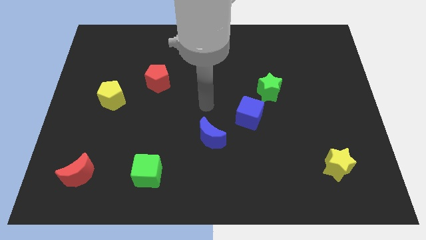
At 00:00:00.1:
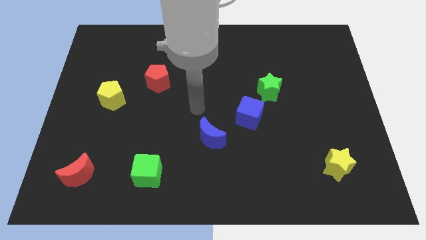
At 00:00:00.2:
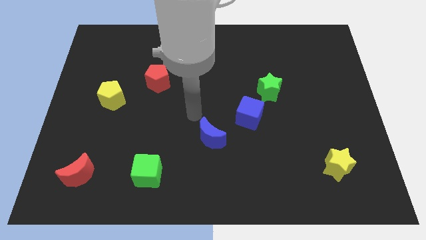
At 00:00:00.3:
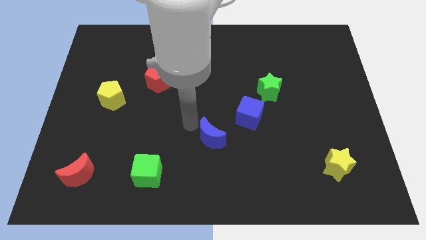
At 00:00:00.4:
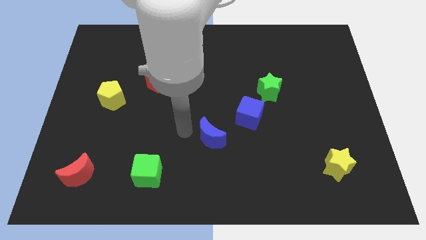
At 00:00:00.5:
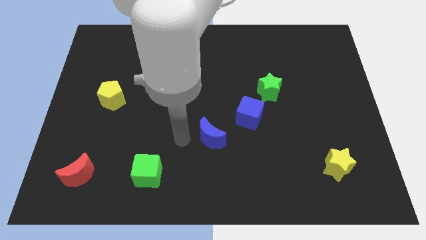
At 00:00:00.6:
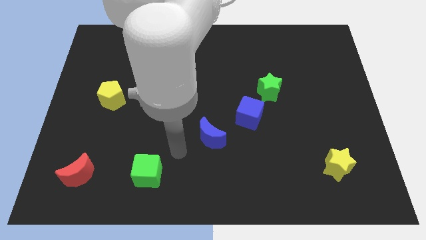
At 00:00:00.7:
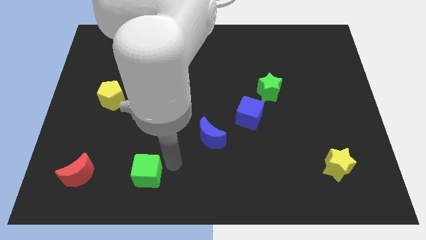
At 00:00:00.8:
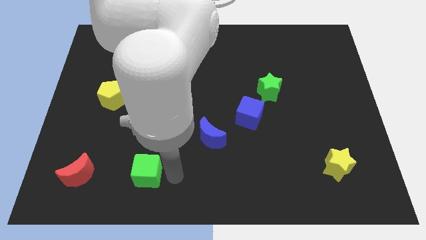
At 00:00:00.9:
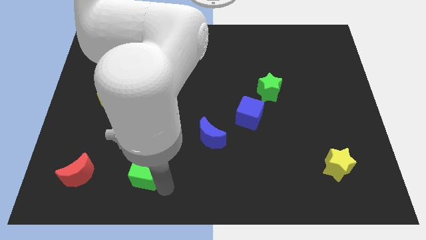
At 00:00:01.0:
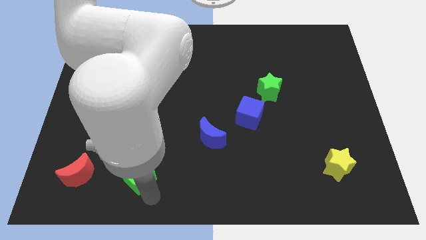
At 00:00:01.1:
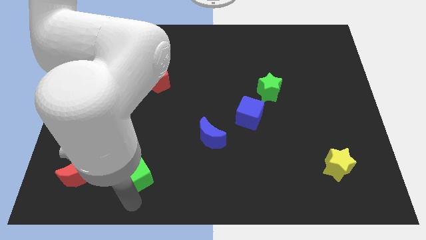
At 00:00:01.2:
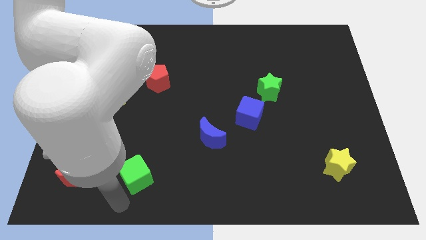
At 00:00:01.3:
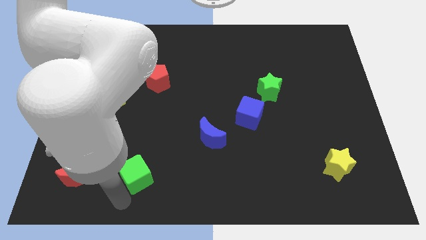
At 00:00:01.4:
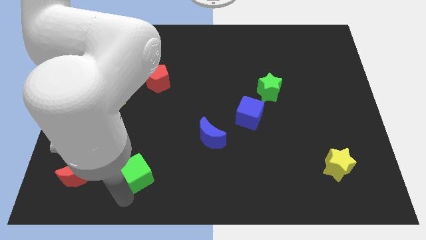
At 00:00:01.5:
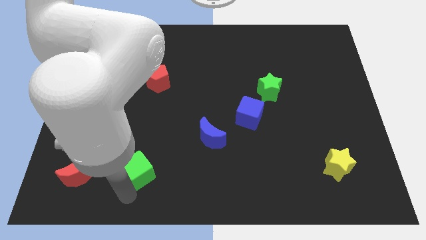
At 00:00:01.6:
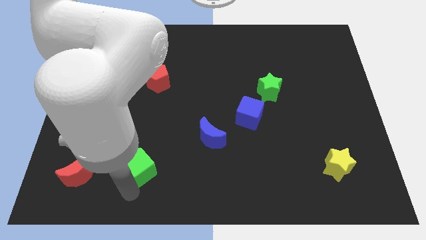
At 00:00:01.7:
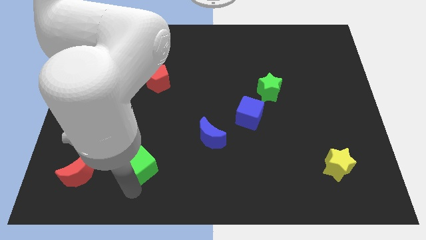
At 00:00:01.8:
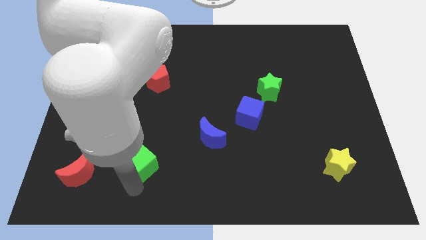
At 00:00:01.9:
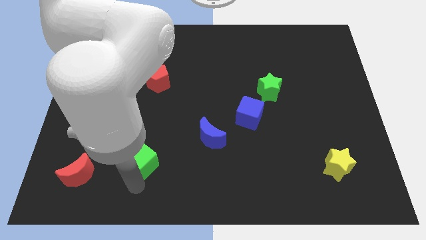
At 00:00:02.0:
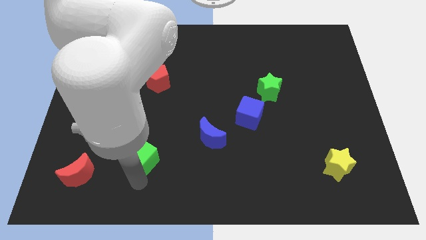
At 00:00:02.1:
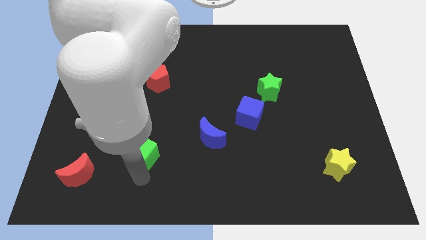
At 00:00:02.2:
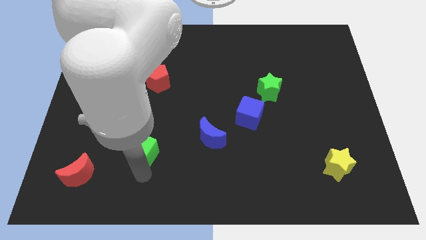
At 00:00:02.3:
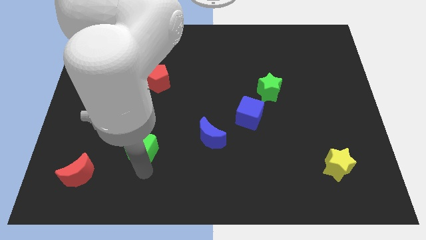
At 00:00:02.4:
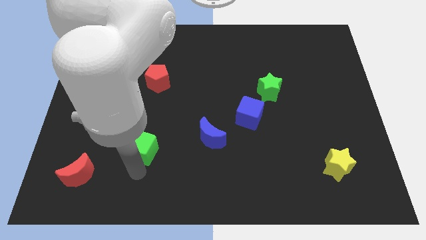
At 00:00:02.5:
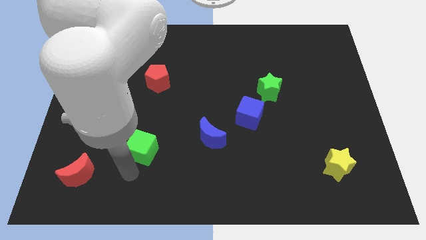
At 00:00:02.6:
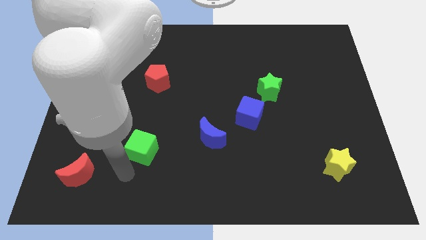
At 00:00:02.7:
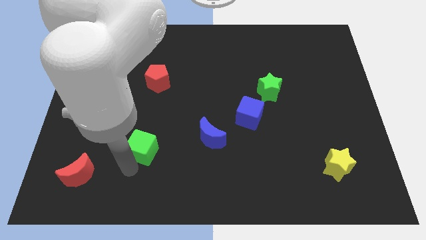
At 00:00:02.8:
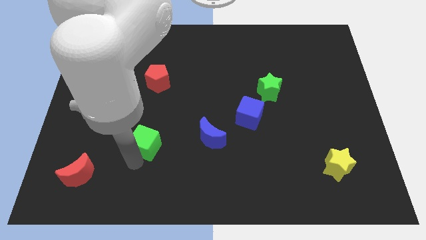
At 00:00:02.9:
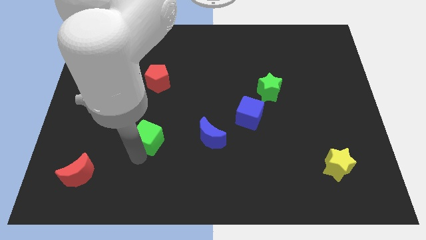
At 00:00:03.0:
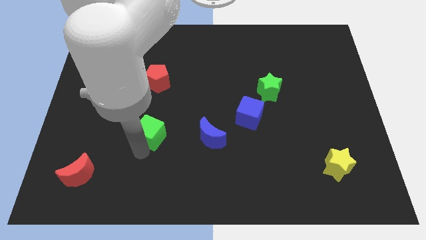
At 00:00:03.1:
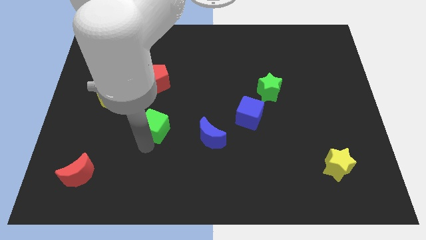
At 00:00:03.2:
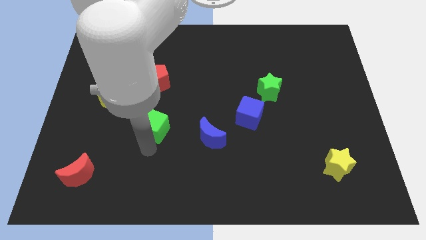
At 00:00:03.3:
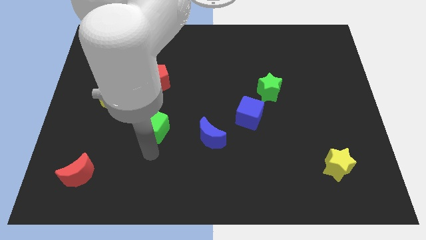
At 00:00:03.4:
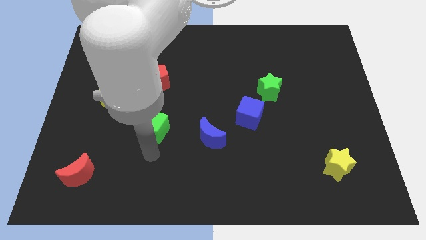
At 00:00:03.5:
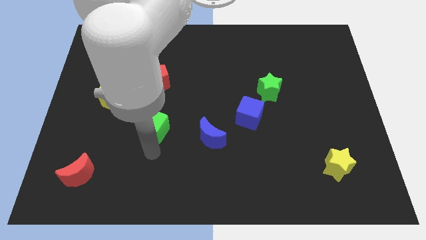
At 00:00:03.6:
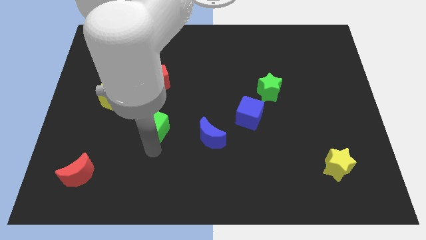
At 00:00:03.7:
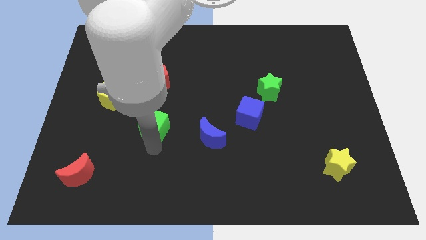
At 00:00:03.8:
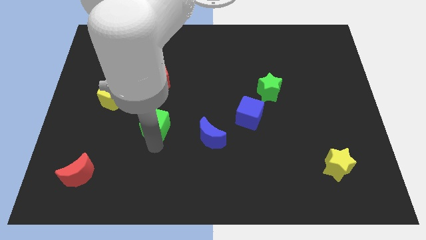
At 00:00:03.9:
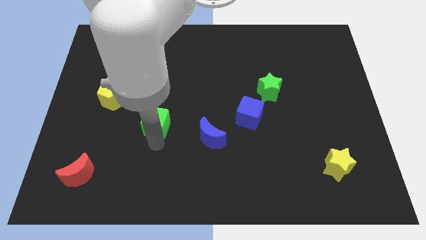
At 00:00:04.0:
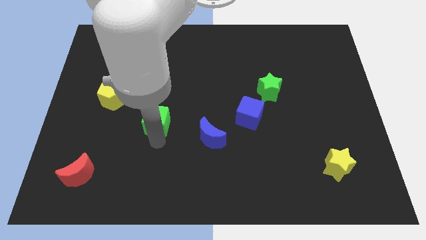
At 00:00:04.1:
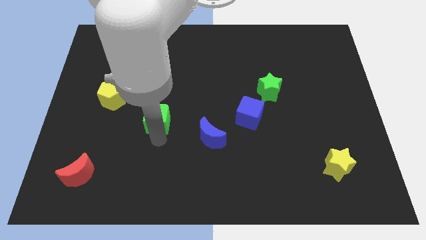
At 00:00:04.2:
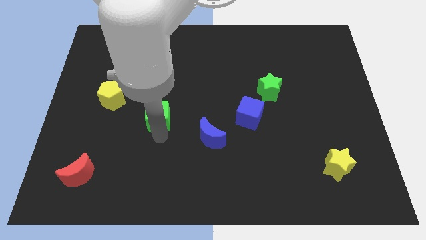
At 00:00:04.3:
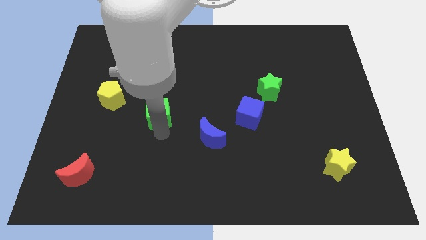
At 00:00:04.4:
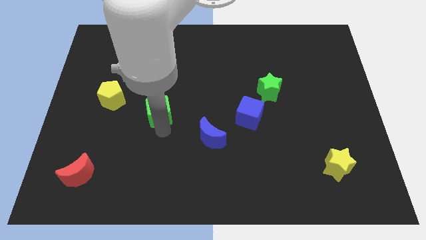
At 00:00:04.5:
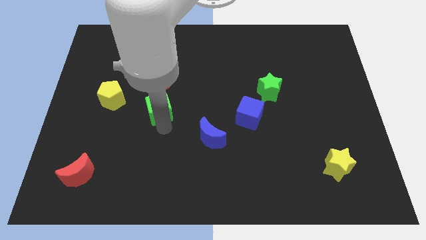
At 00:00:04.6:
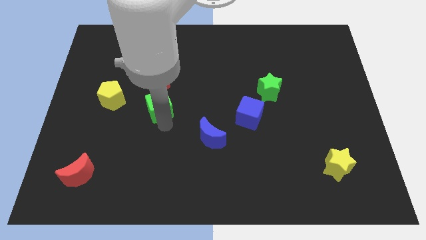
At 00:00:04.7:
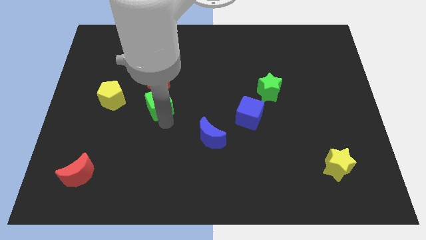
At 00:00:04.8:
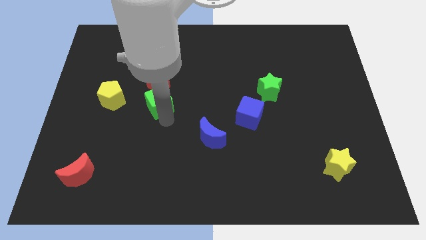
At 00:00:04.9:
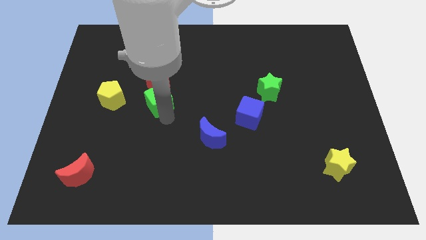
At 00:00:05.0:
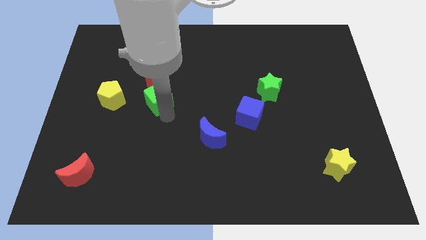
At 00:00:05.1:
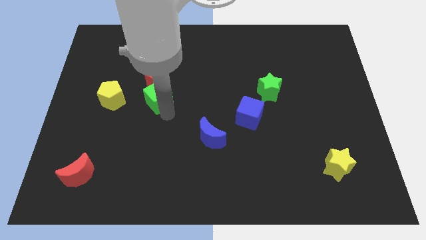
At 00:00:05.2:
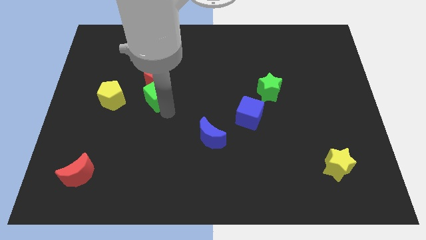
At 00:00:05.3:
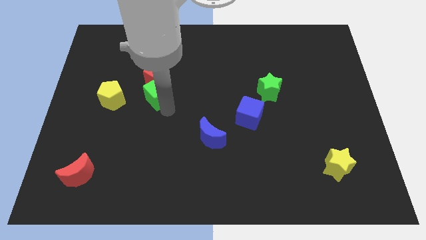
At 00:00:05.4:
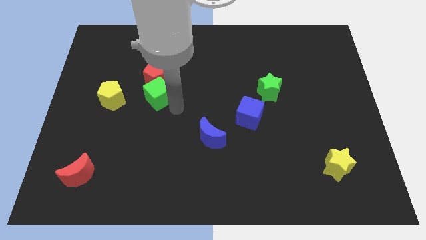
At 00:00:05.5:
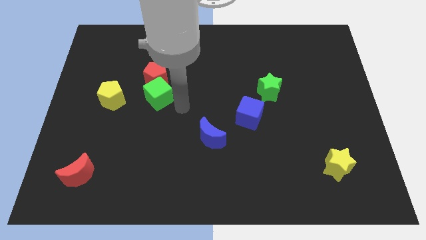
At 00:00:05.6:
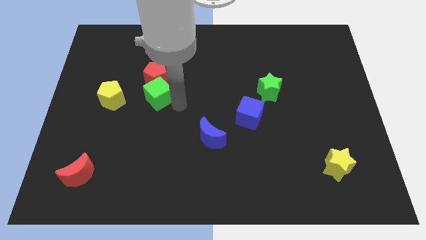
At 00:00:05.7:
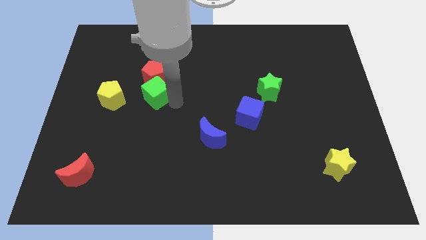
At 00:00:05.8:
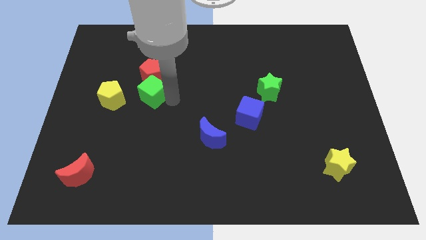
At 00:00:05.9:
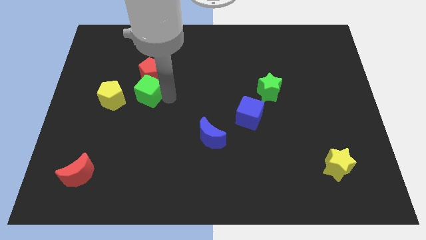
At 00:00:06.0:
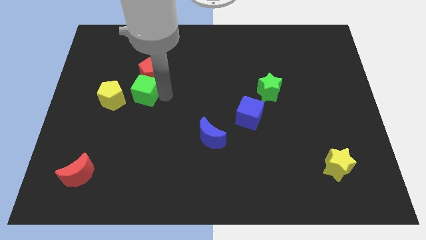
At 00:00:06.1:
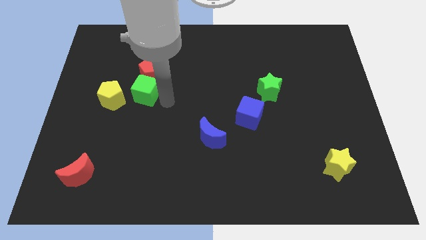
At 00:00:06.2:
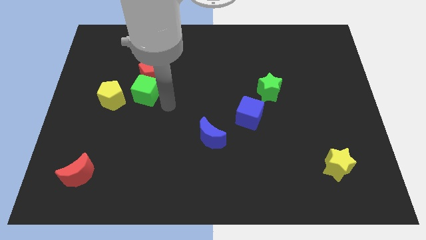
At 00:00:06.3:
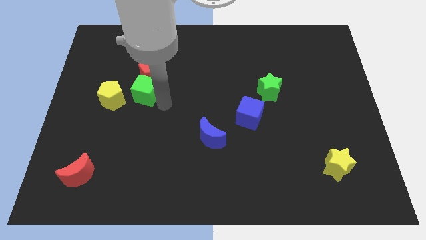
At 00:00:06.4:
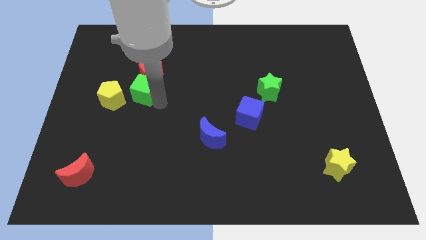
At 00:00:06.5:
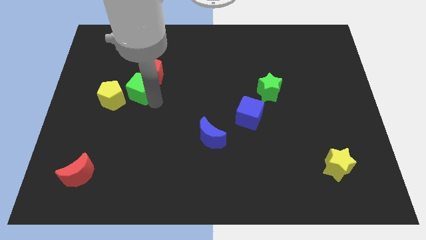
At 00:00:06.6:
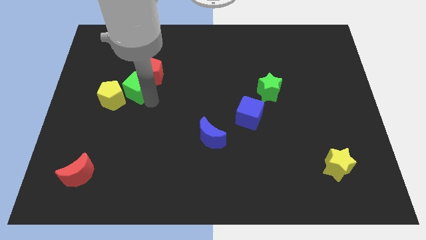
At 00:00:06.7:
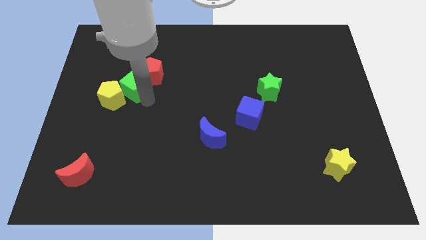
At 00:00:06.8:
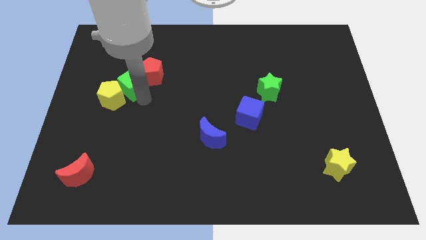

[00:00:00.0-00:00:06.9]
put the green cube just left of the red pentagon

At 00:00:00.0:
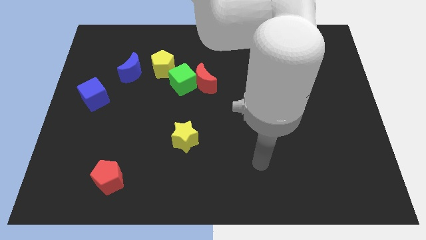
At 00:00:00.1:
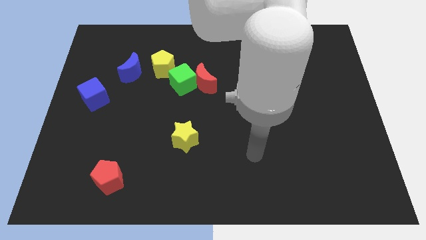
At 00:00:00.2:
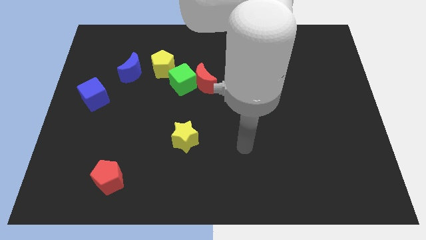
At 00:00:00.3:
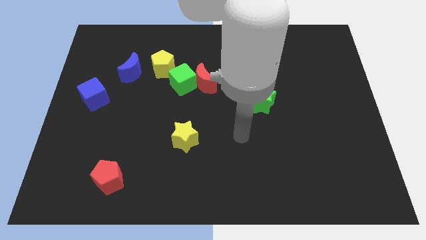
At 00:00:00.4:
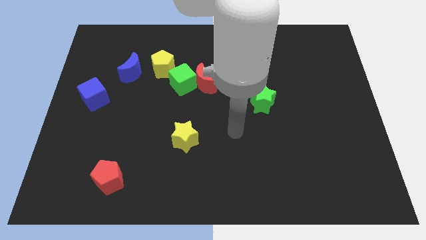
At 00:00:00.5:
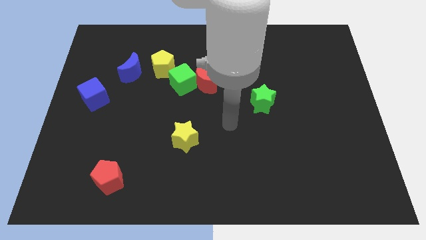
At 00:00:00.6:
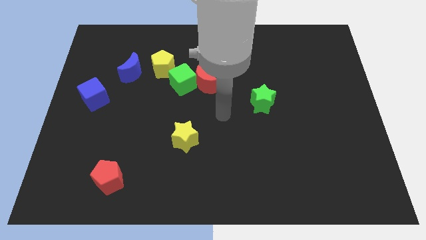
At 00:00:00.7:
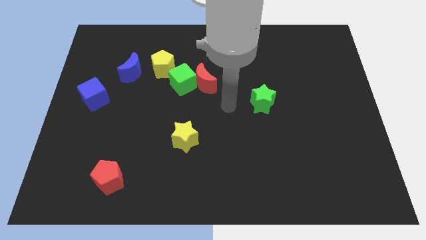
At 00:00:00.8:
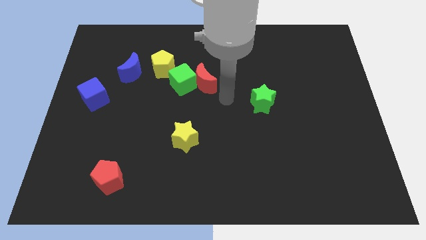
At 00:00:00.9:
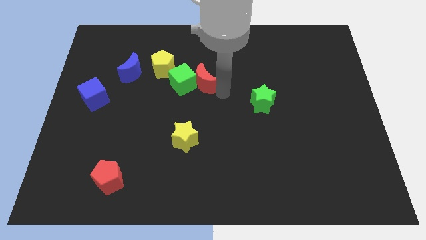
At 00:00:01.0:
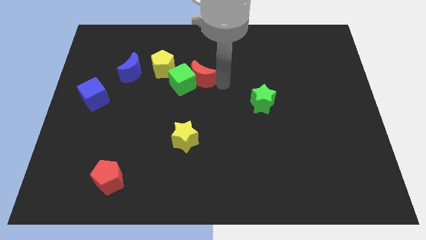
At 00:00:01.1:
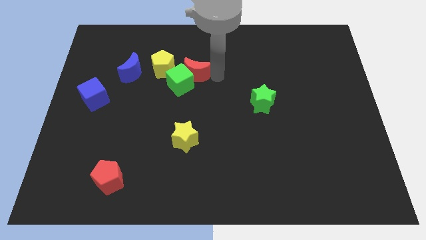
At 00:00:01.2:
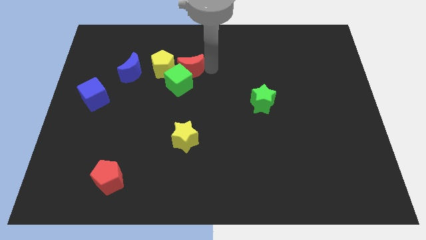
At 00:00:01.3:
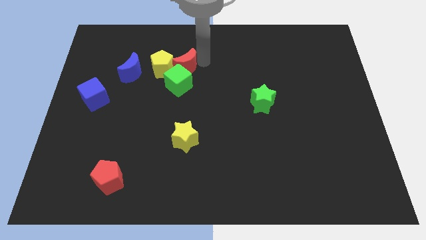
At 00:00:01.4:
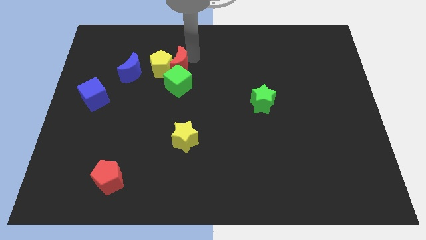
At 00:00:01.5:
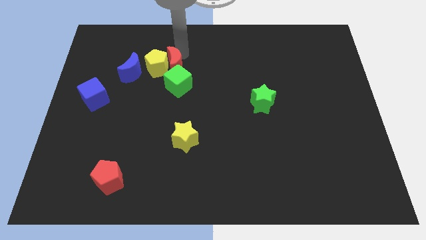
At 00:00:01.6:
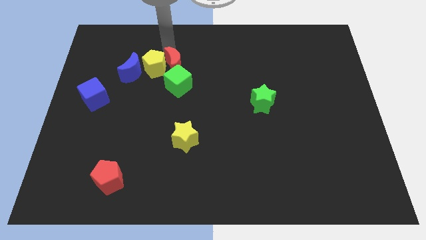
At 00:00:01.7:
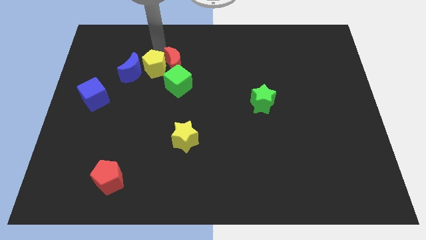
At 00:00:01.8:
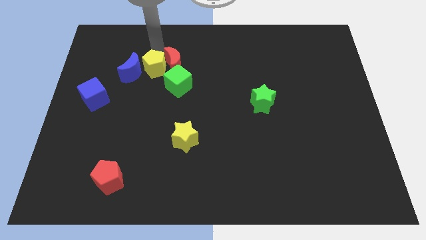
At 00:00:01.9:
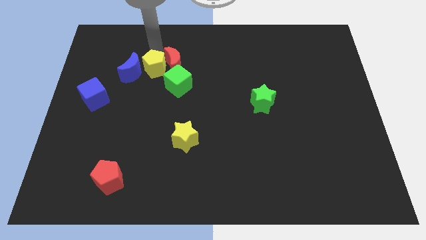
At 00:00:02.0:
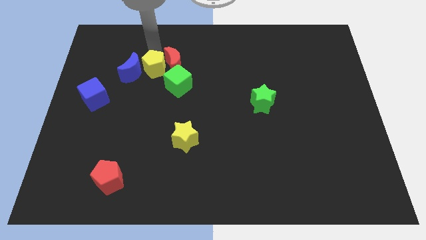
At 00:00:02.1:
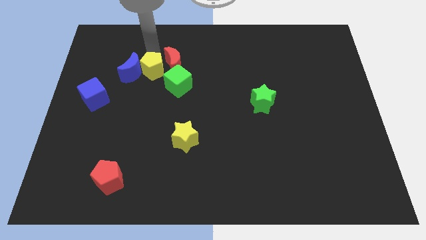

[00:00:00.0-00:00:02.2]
push the yellow pentagon diagonally down and to the right of the blue moon
